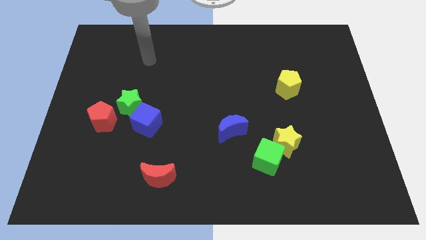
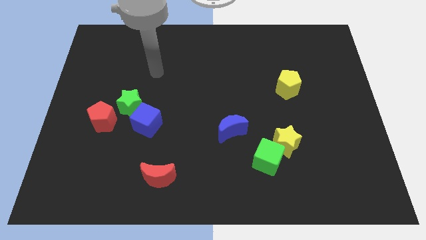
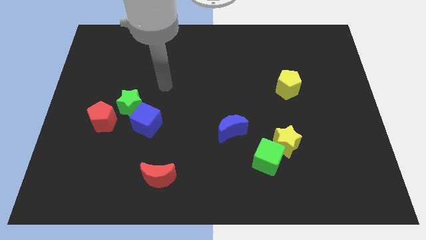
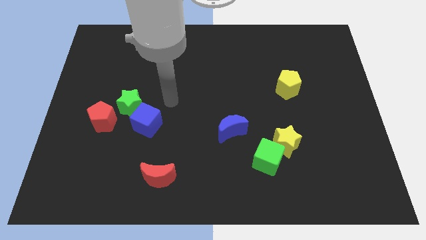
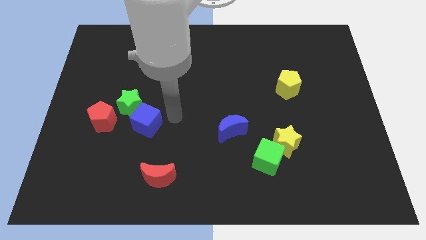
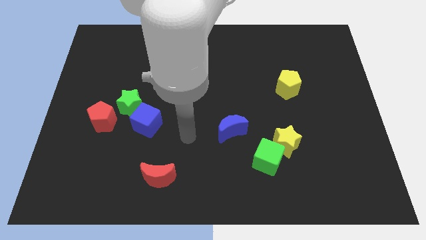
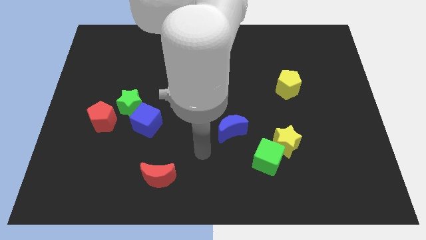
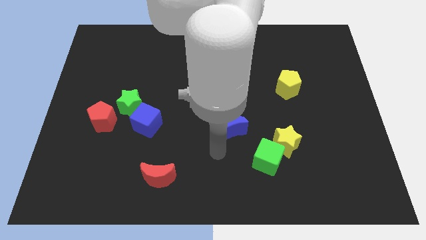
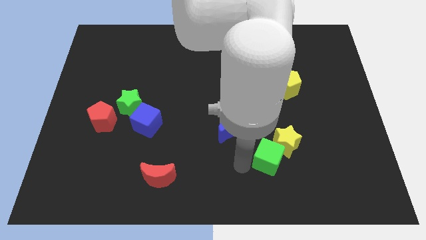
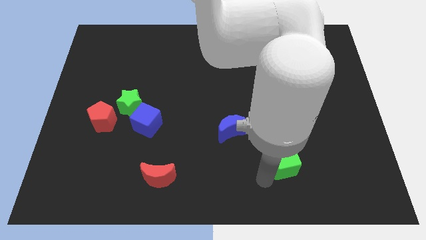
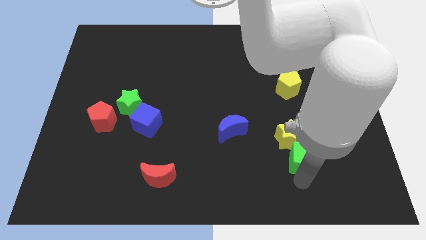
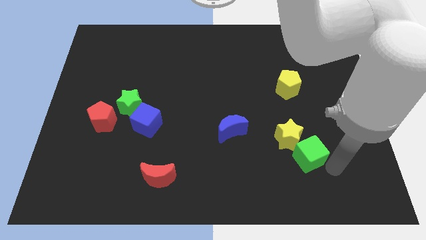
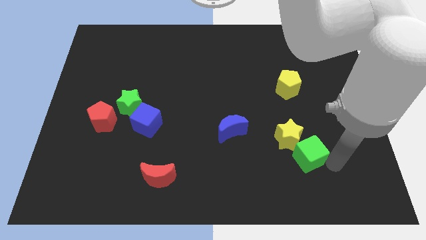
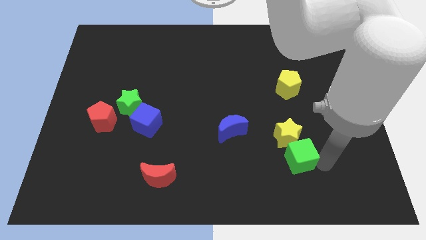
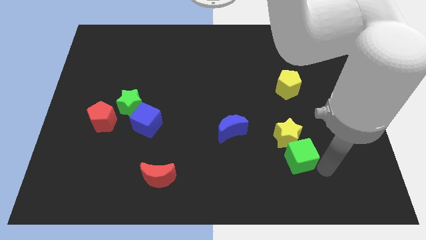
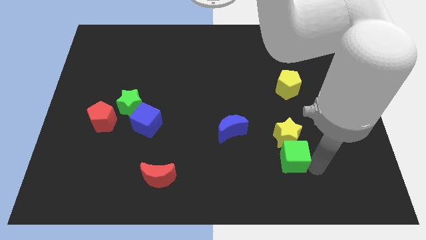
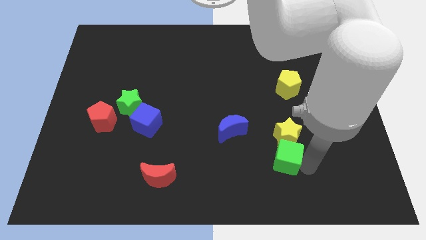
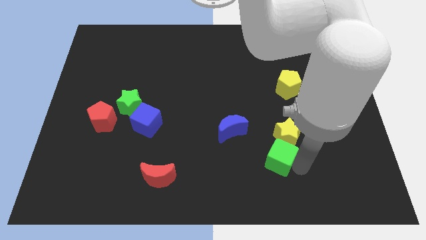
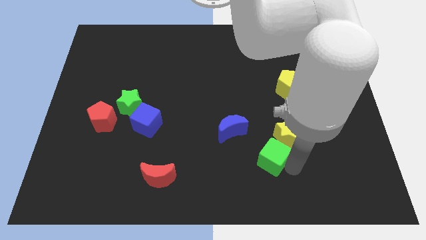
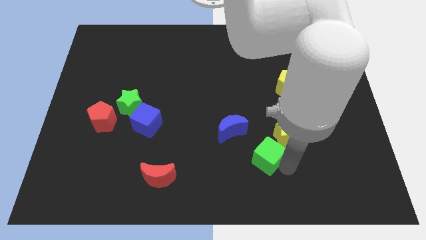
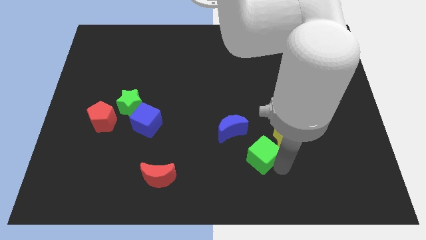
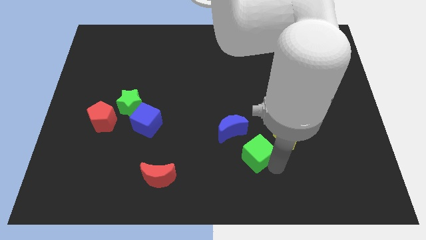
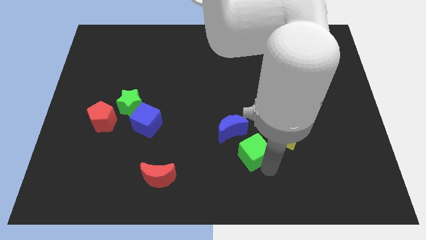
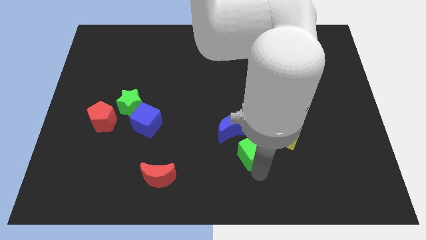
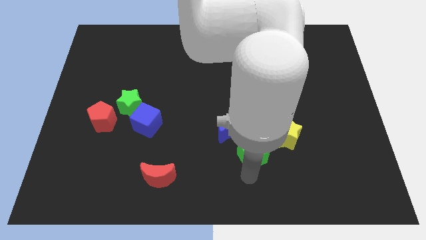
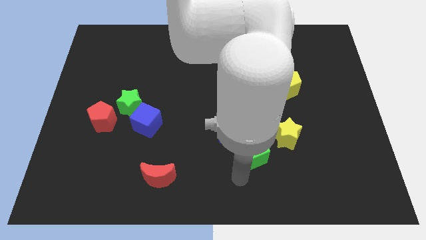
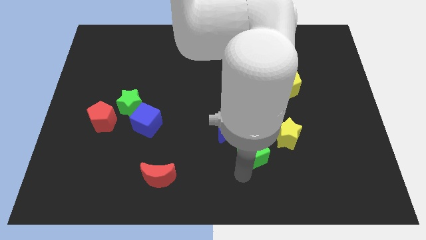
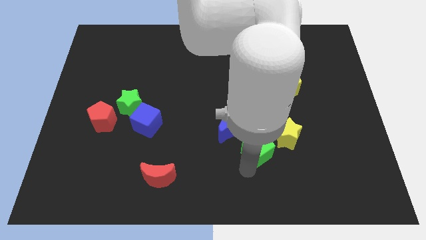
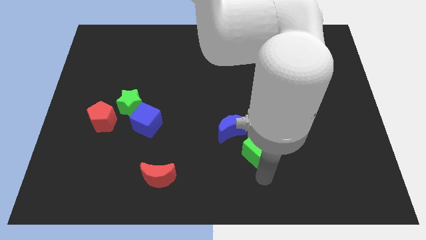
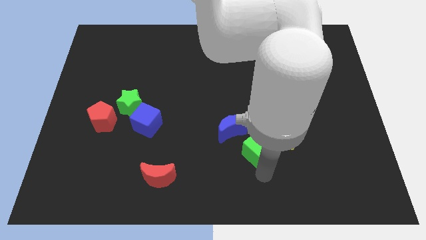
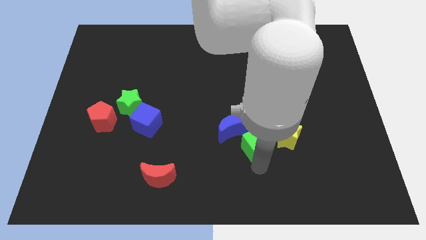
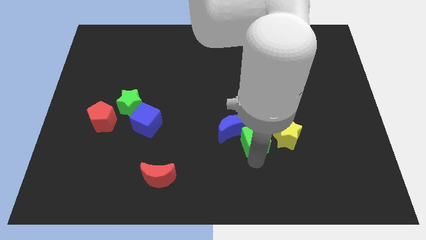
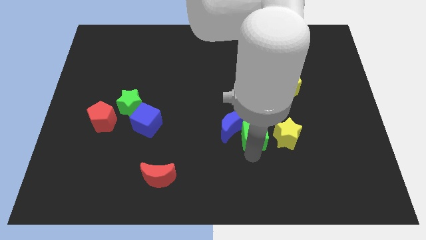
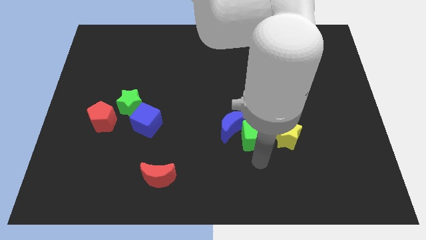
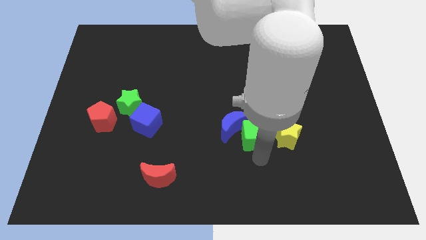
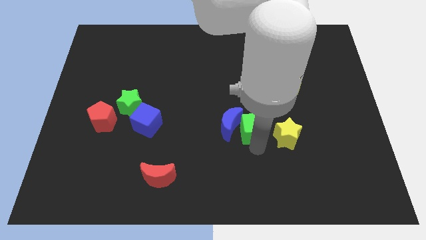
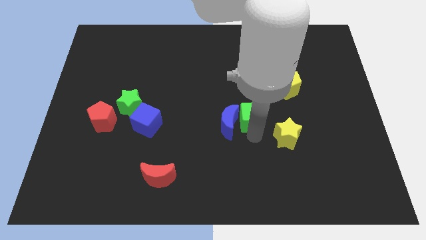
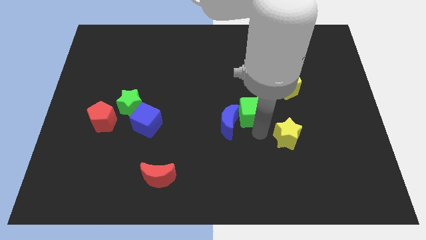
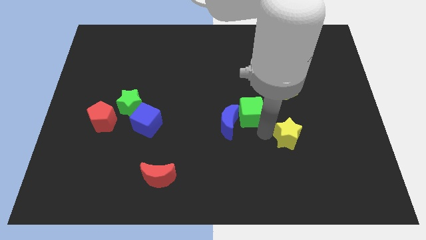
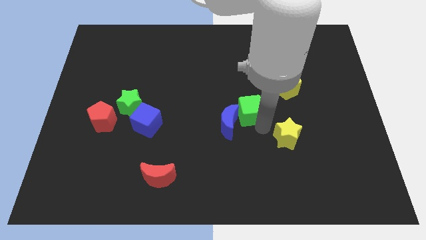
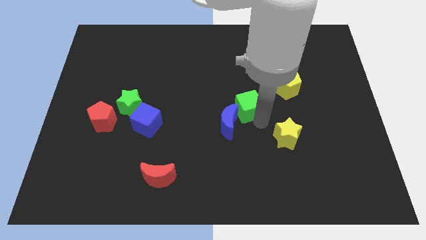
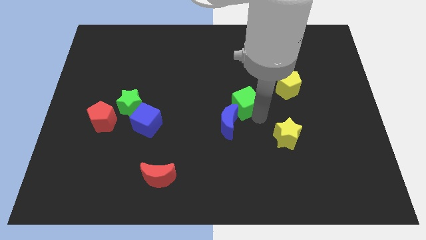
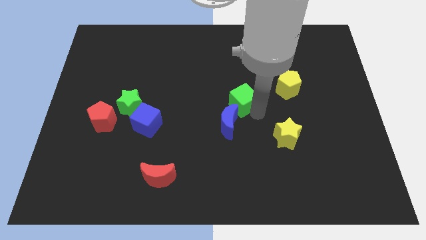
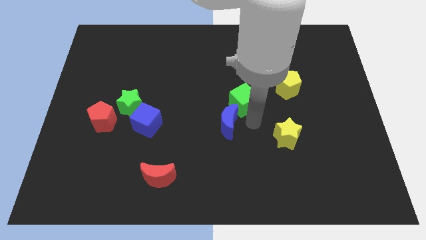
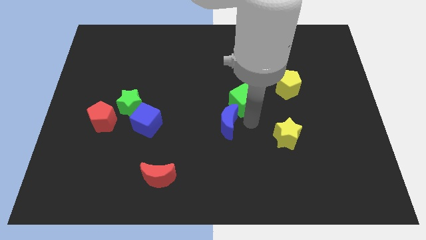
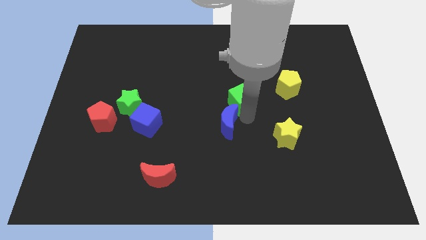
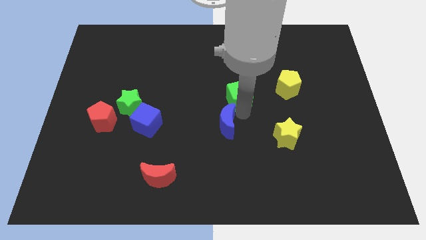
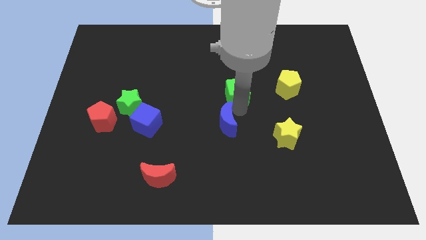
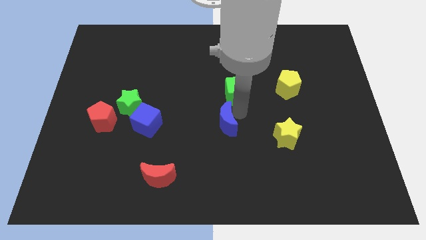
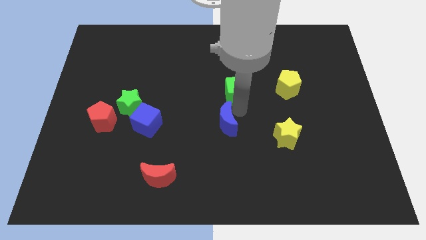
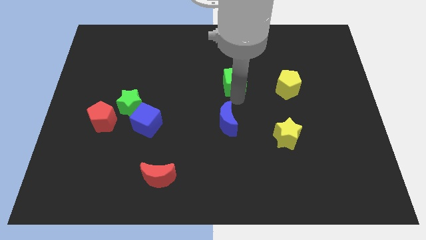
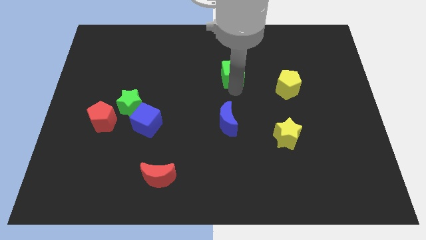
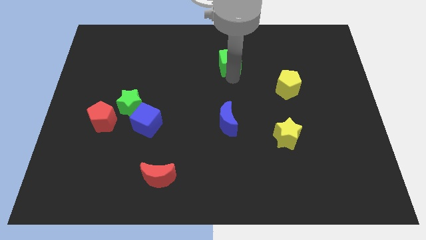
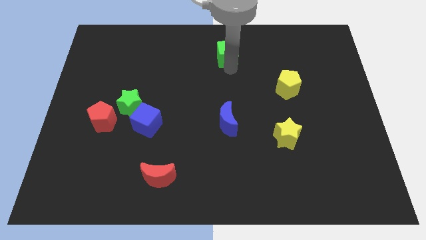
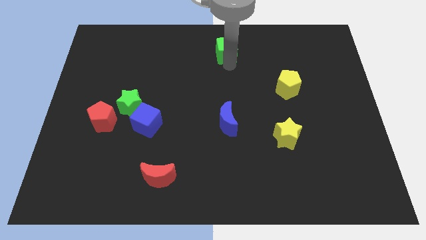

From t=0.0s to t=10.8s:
slide the green cube to the towards your base
